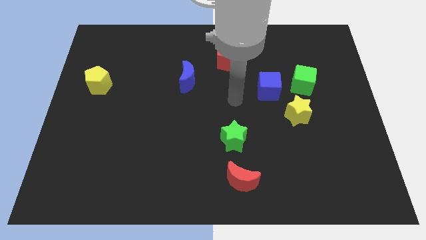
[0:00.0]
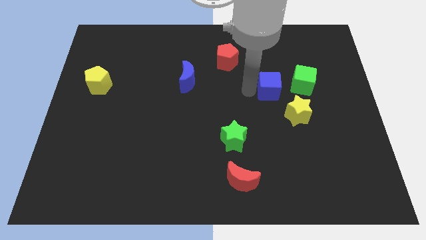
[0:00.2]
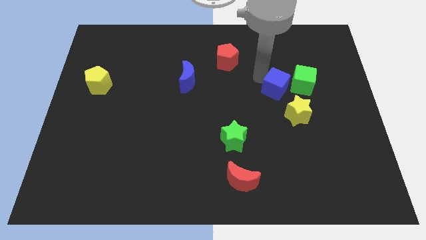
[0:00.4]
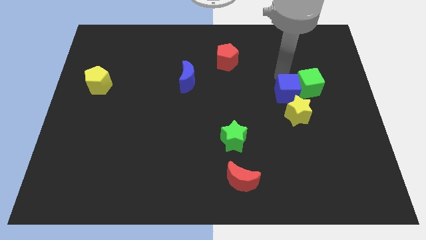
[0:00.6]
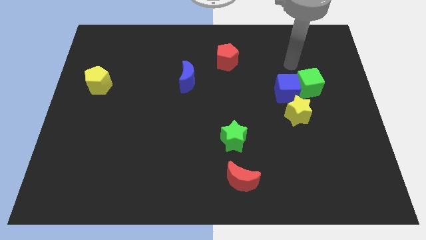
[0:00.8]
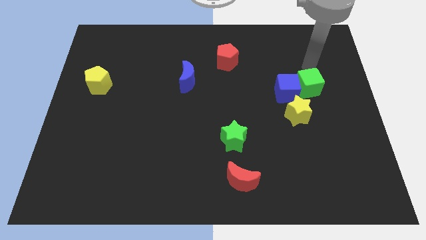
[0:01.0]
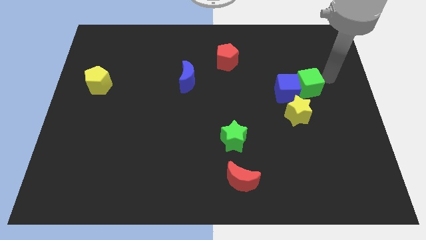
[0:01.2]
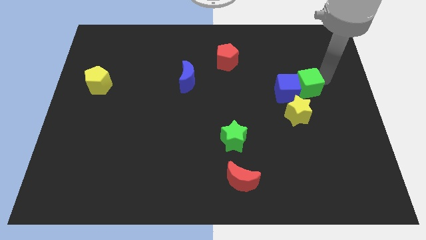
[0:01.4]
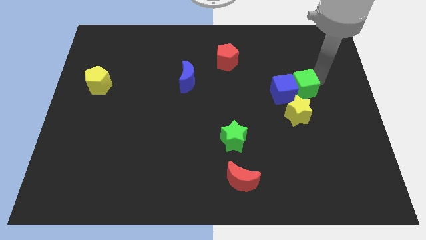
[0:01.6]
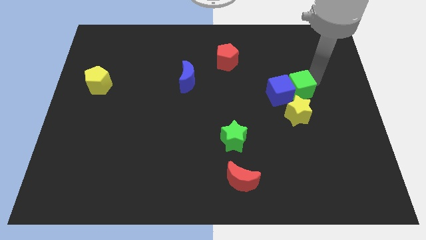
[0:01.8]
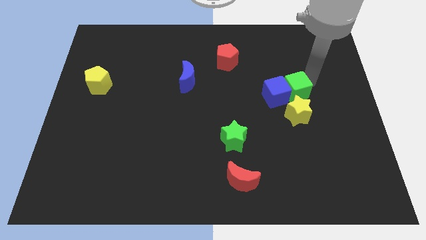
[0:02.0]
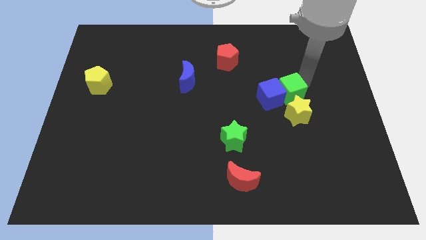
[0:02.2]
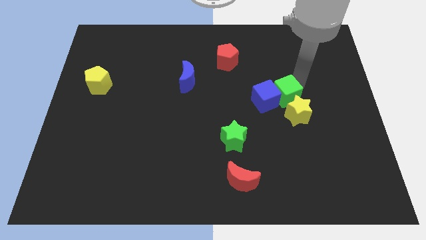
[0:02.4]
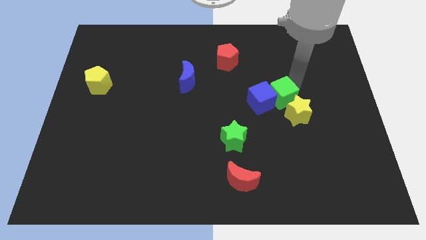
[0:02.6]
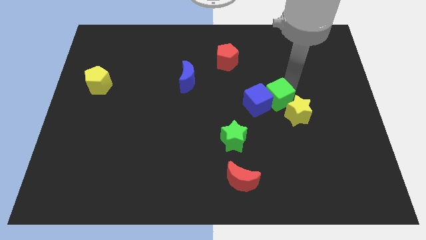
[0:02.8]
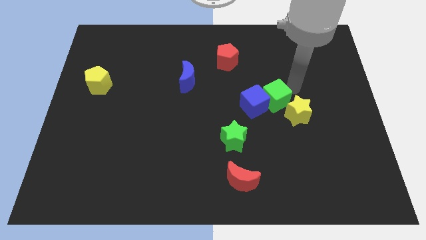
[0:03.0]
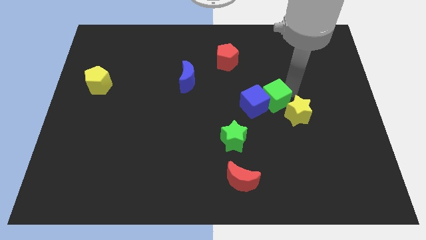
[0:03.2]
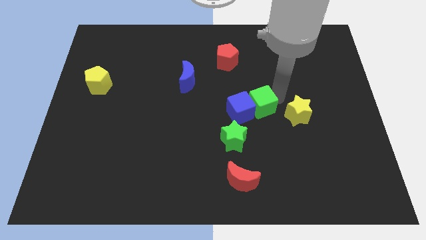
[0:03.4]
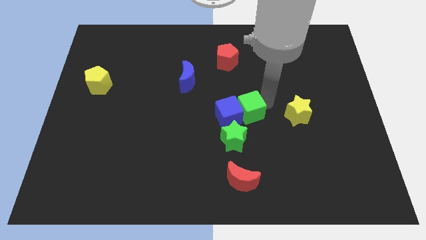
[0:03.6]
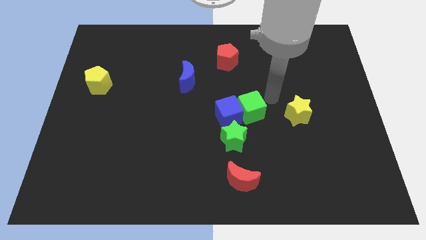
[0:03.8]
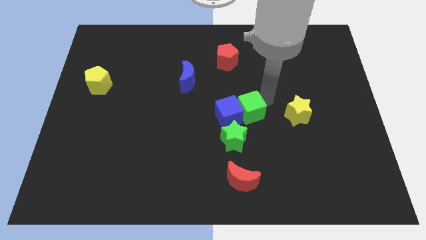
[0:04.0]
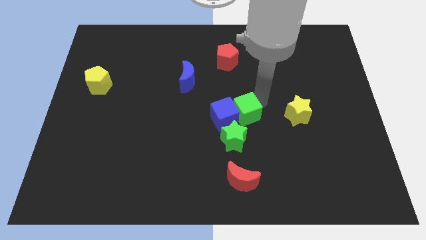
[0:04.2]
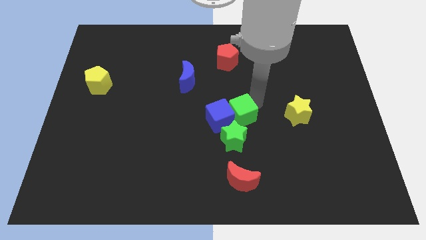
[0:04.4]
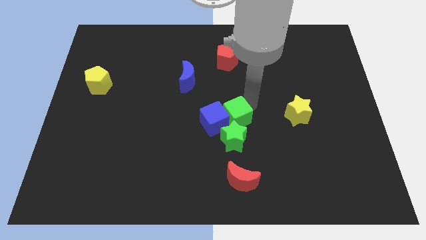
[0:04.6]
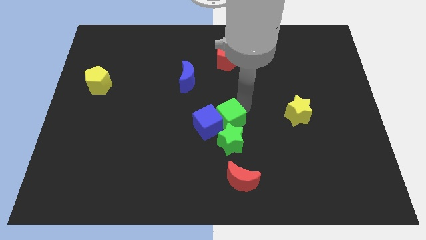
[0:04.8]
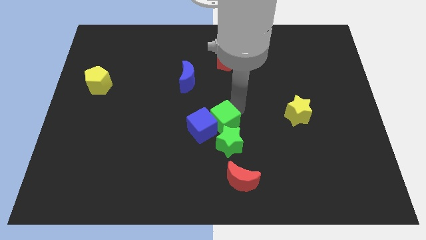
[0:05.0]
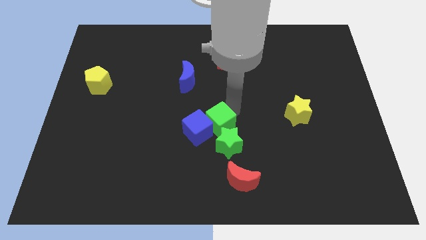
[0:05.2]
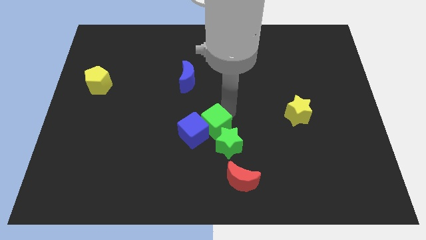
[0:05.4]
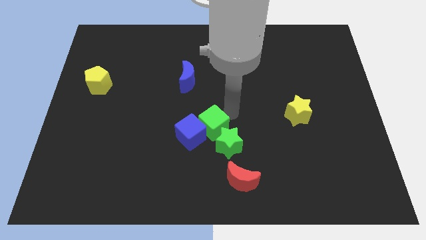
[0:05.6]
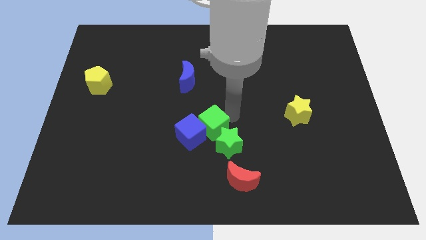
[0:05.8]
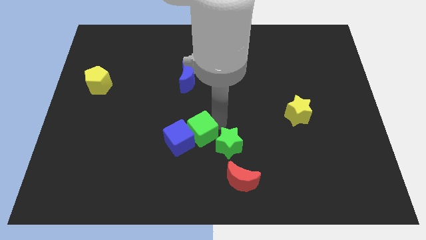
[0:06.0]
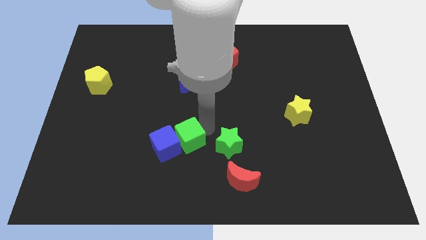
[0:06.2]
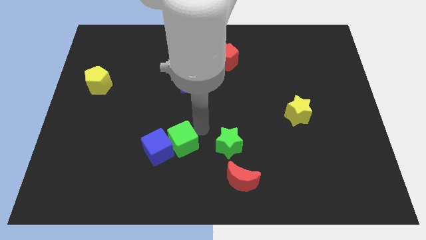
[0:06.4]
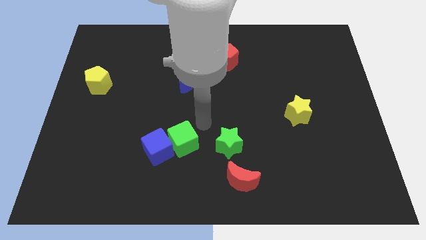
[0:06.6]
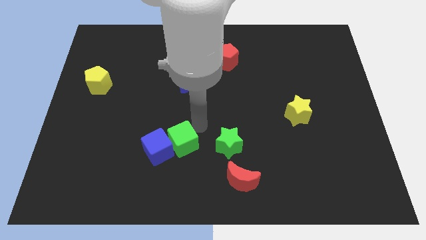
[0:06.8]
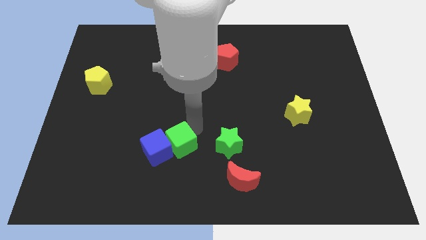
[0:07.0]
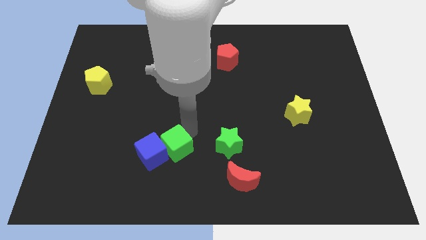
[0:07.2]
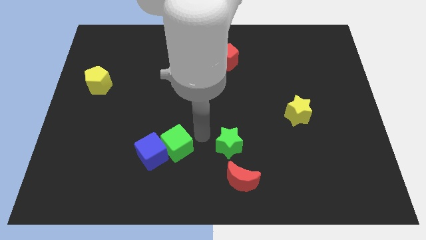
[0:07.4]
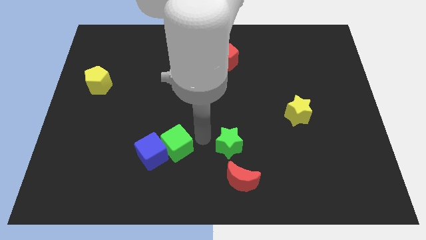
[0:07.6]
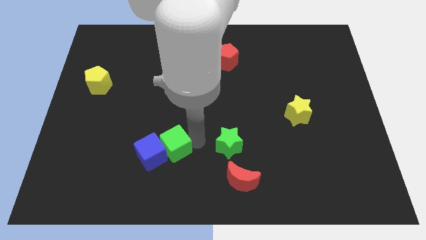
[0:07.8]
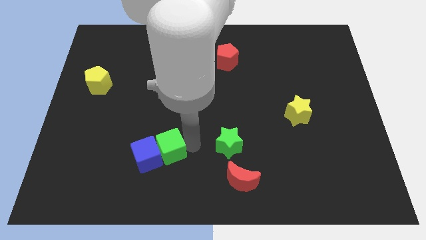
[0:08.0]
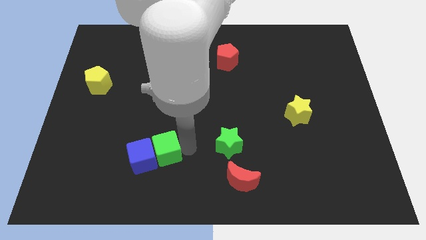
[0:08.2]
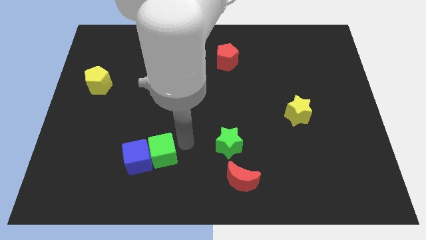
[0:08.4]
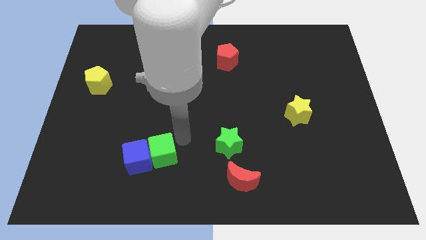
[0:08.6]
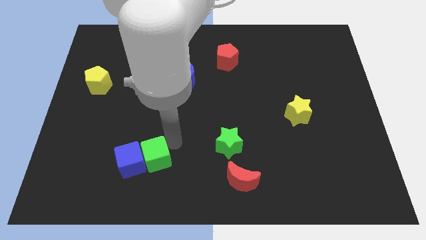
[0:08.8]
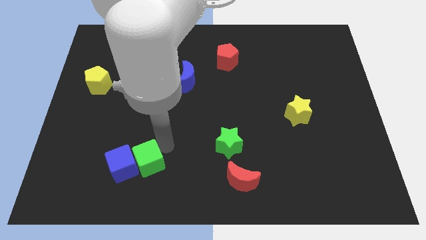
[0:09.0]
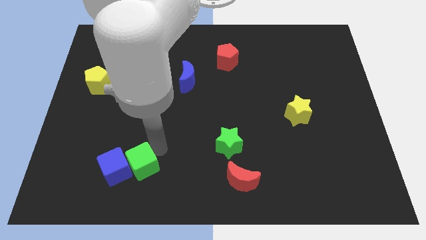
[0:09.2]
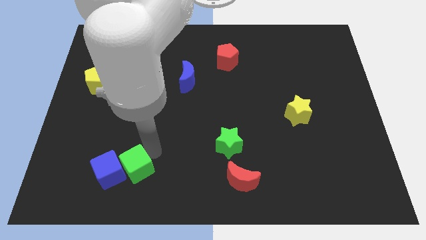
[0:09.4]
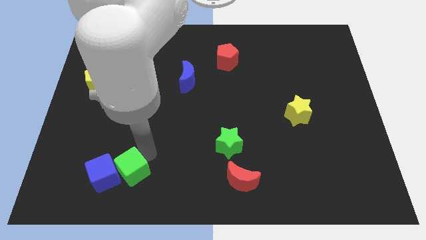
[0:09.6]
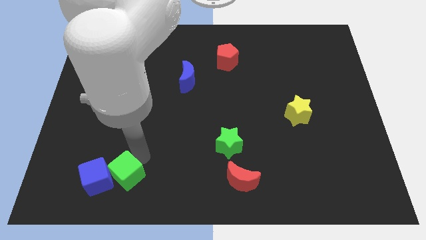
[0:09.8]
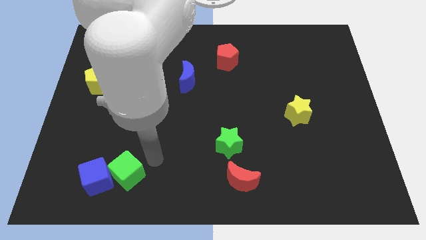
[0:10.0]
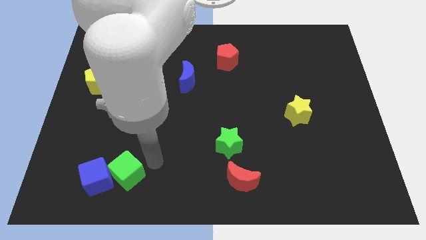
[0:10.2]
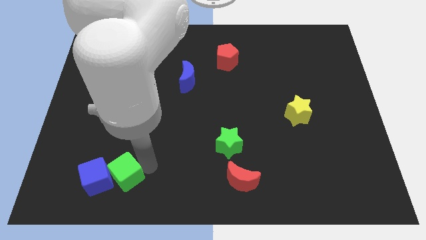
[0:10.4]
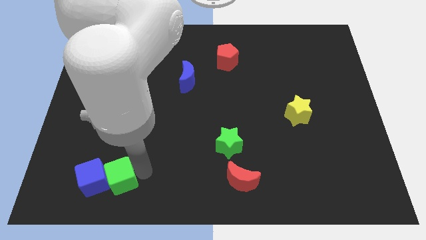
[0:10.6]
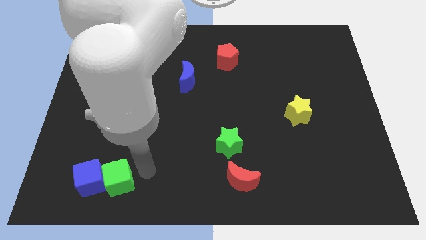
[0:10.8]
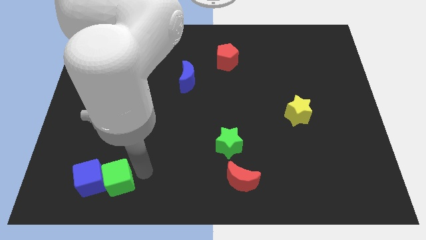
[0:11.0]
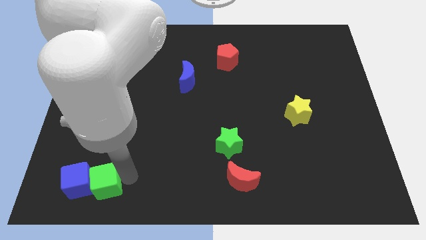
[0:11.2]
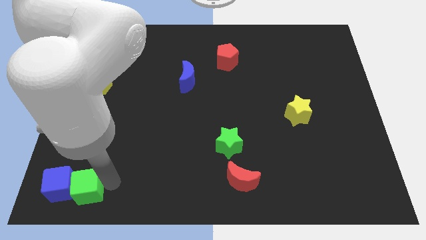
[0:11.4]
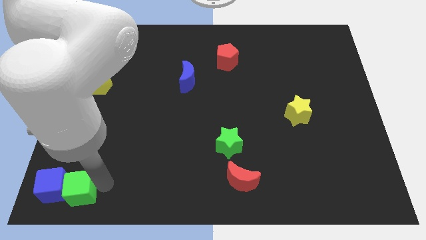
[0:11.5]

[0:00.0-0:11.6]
push the green cube to the bottom left corner

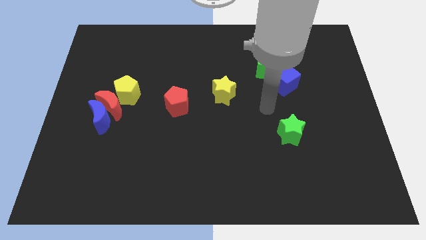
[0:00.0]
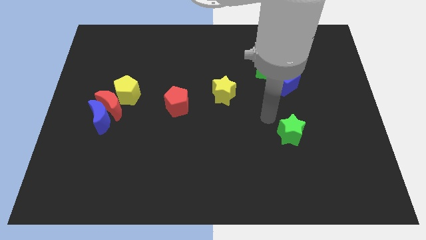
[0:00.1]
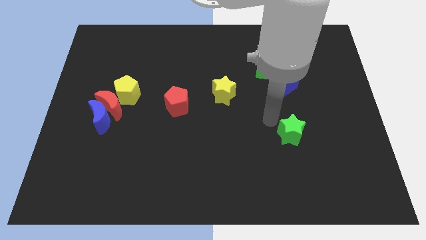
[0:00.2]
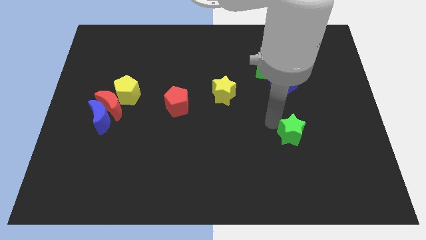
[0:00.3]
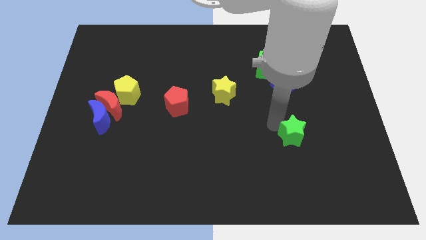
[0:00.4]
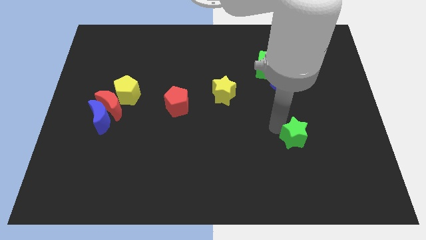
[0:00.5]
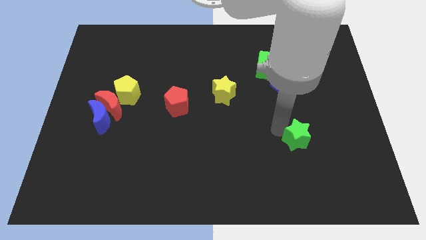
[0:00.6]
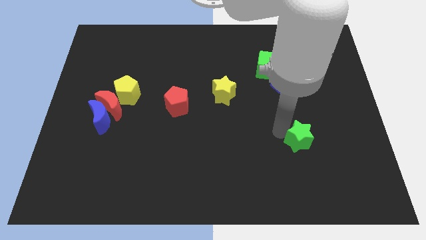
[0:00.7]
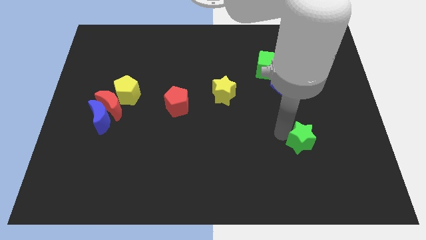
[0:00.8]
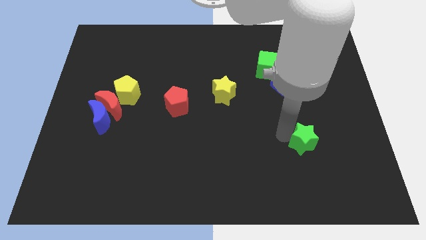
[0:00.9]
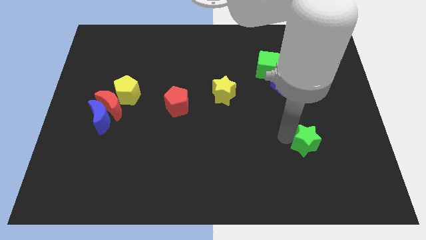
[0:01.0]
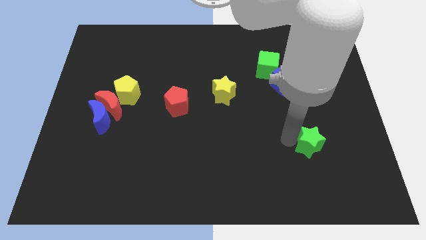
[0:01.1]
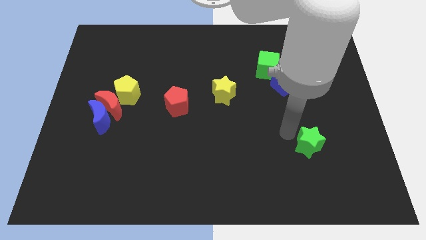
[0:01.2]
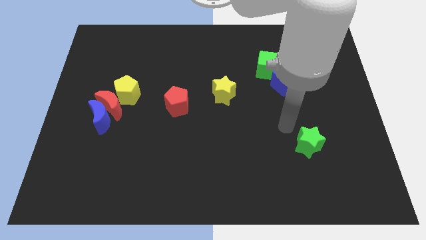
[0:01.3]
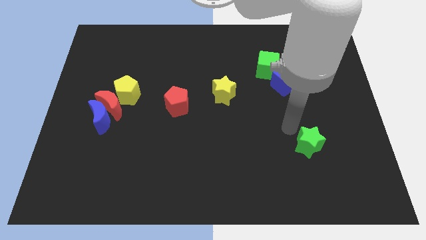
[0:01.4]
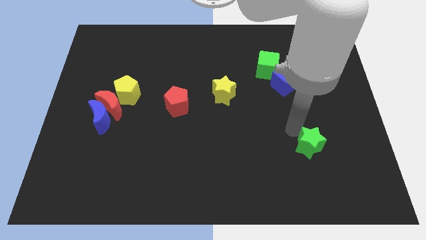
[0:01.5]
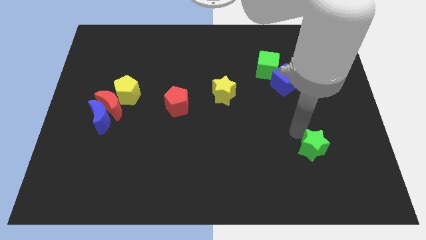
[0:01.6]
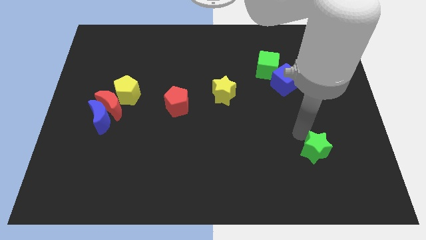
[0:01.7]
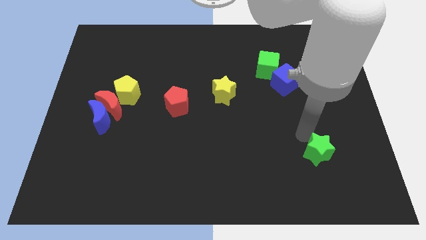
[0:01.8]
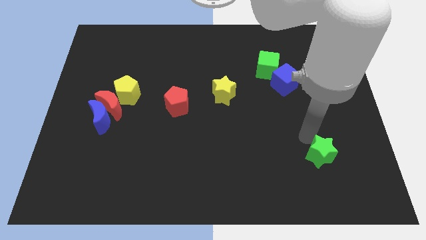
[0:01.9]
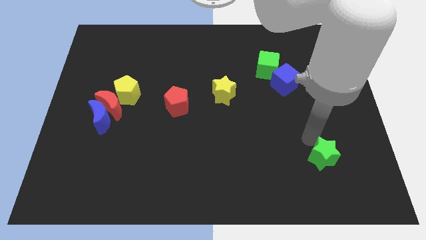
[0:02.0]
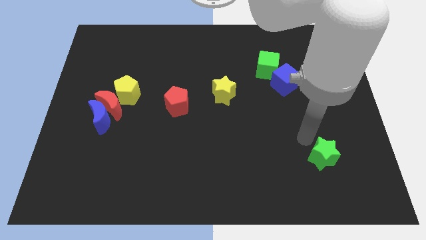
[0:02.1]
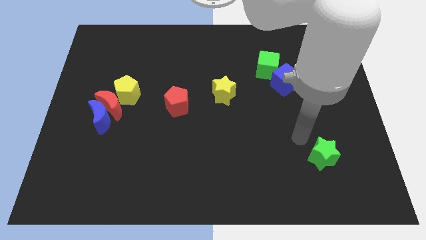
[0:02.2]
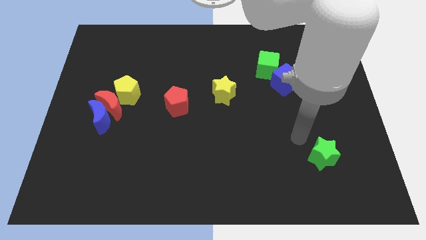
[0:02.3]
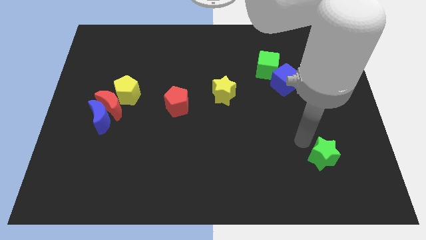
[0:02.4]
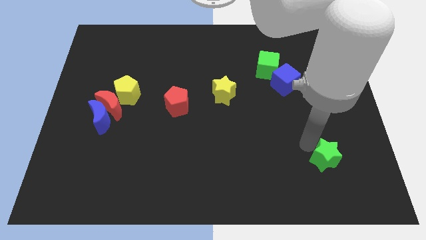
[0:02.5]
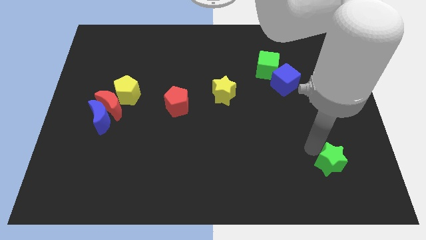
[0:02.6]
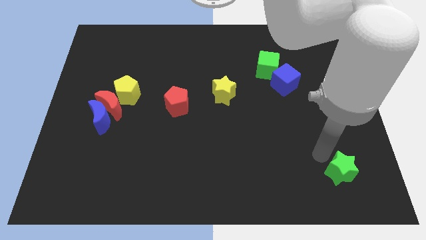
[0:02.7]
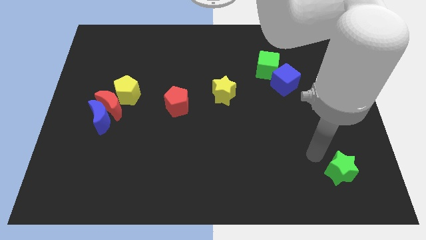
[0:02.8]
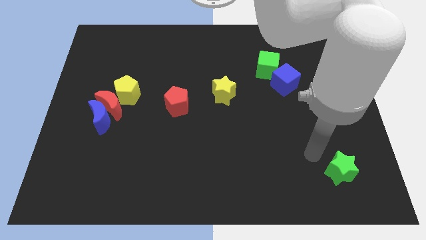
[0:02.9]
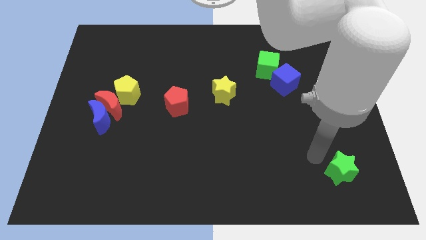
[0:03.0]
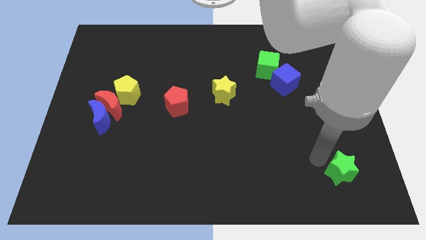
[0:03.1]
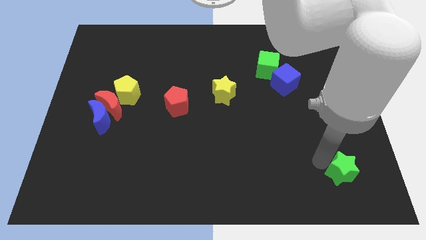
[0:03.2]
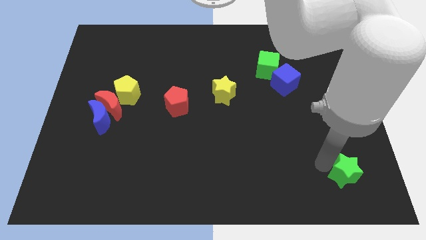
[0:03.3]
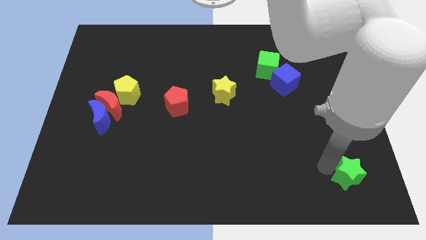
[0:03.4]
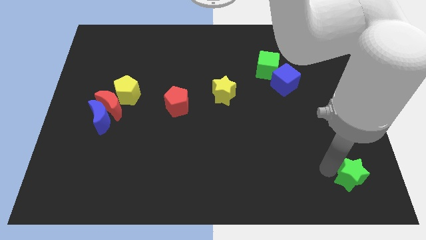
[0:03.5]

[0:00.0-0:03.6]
slide the green star to the bottom right
